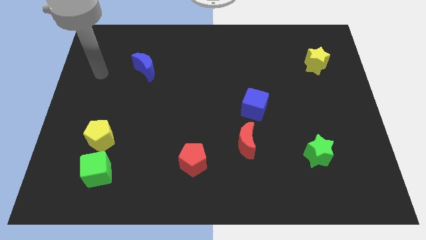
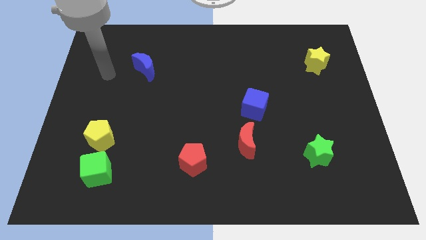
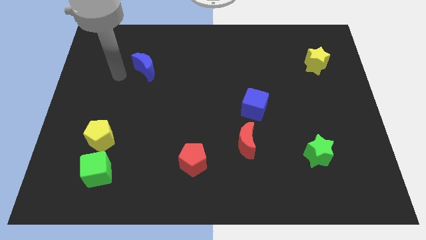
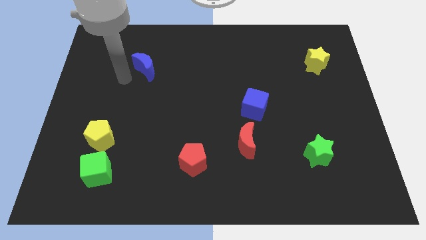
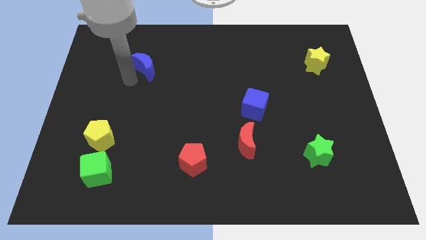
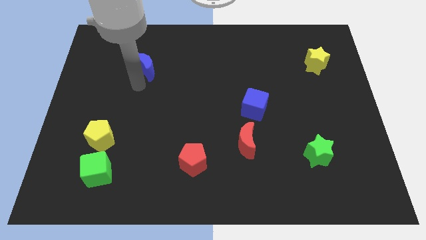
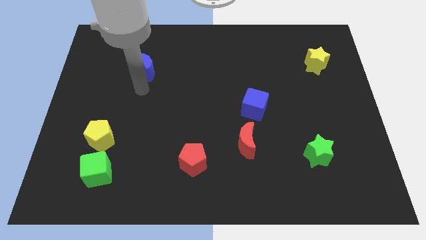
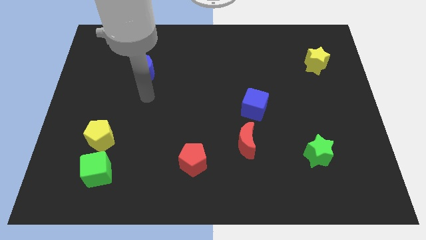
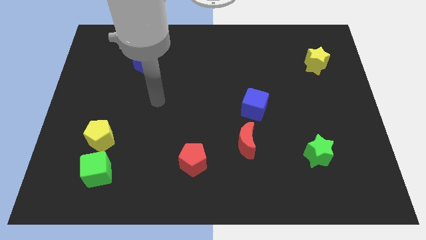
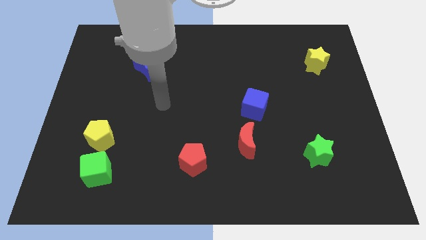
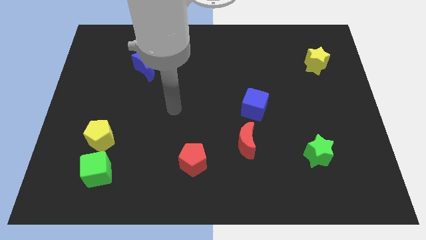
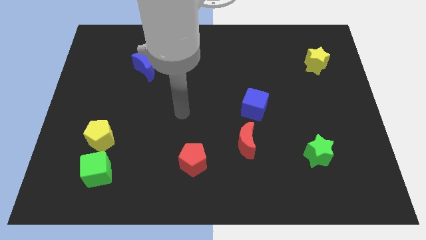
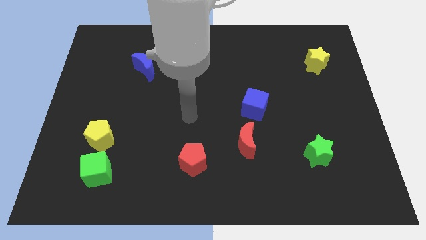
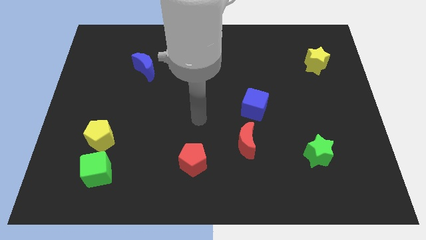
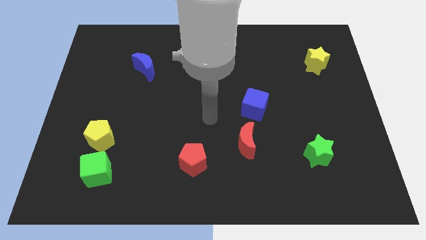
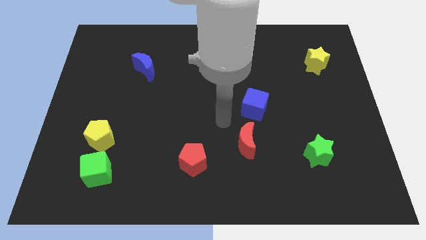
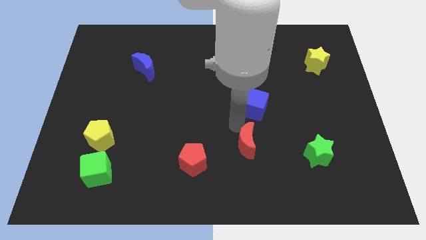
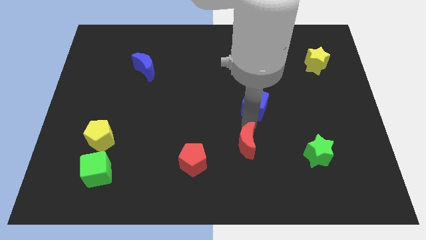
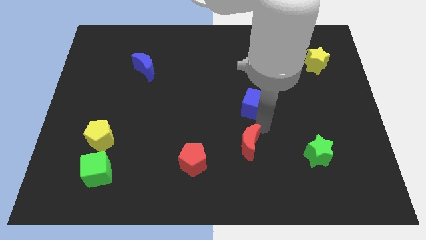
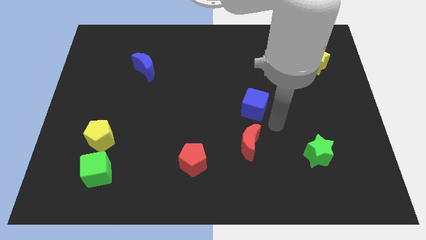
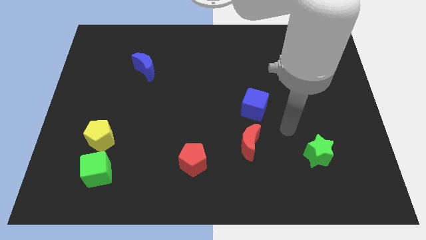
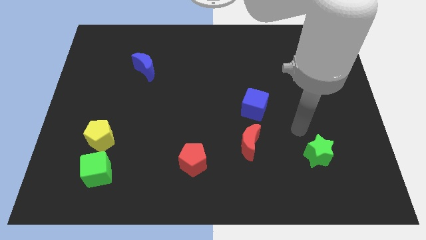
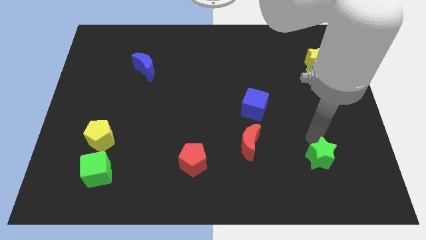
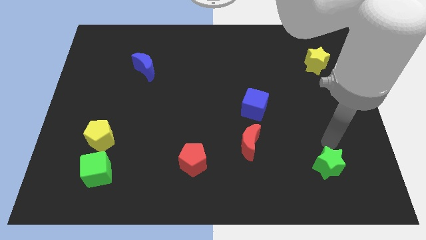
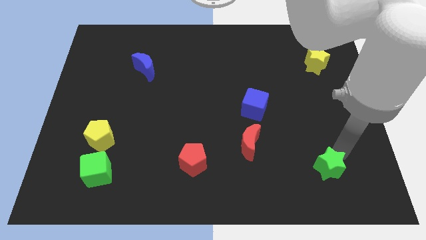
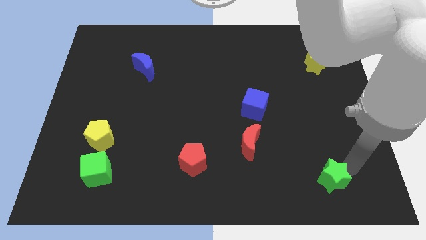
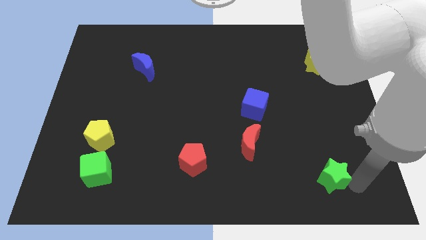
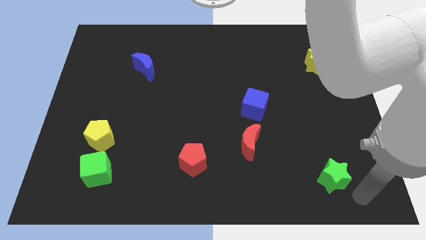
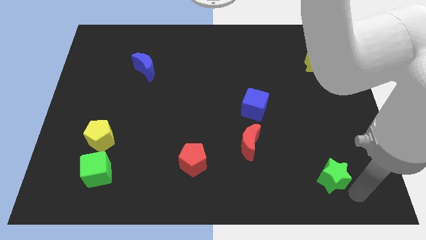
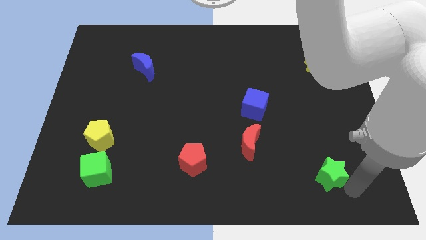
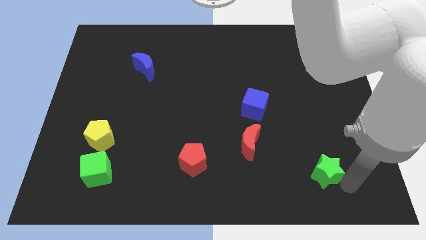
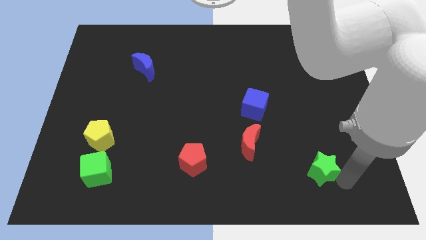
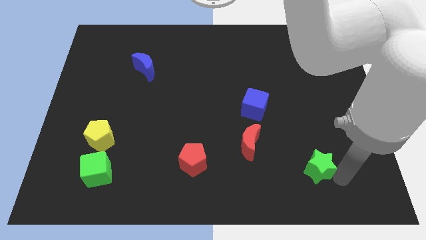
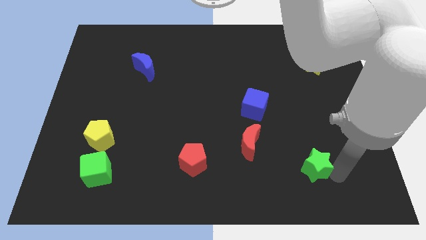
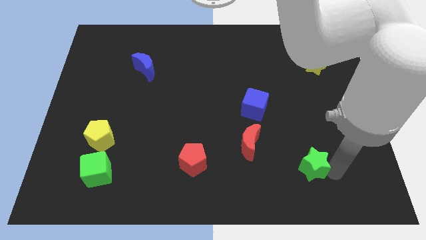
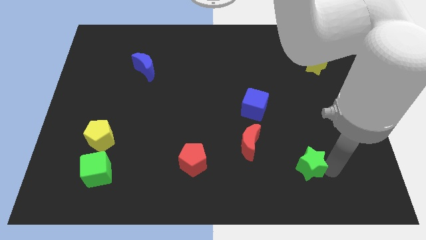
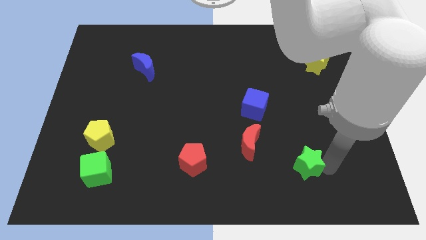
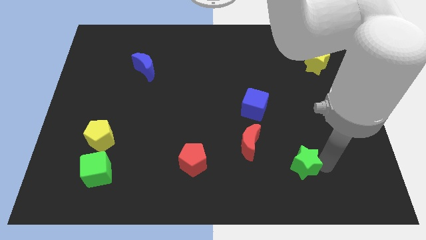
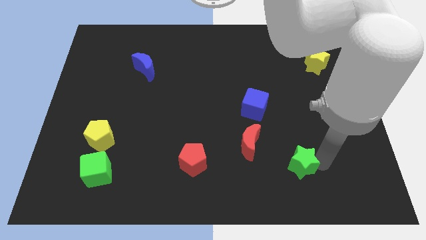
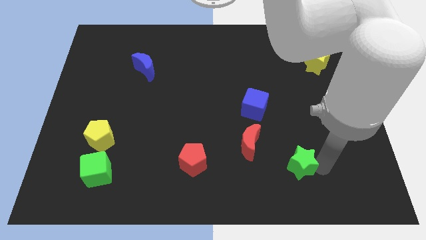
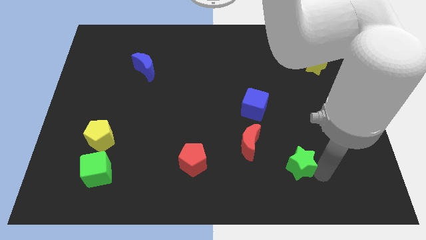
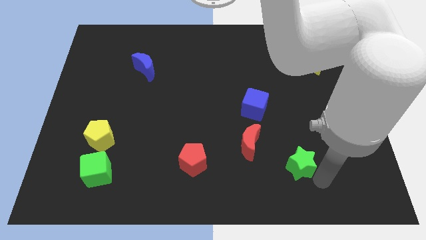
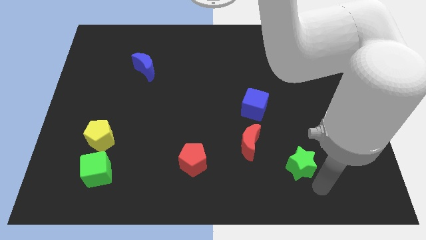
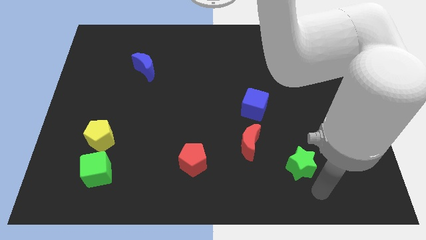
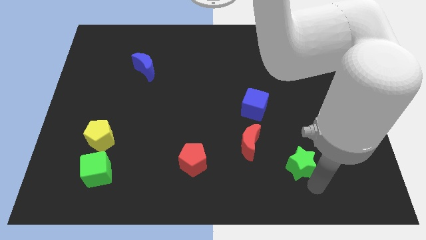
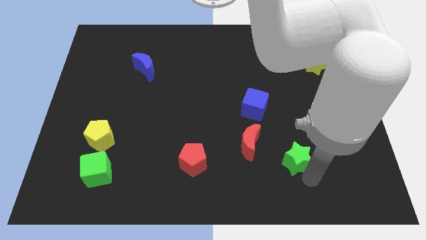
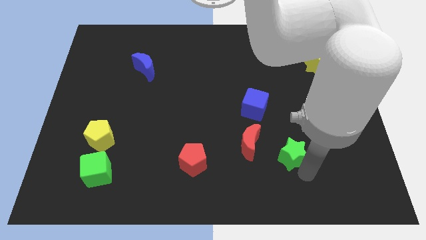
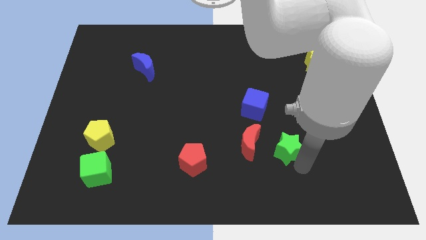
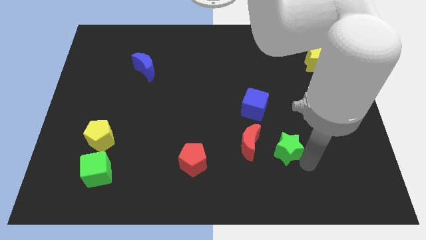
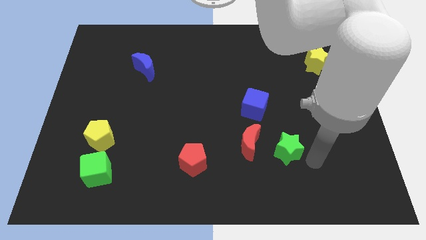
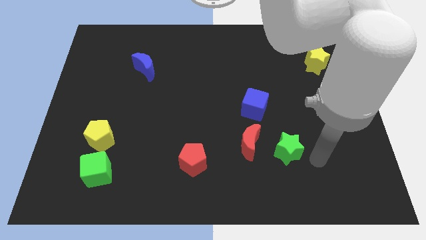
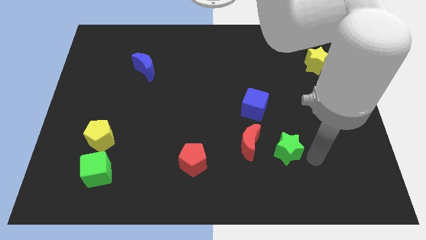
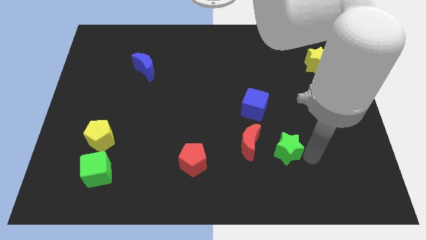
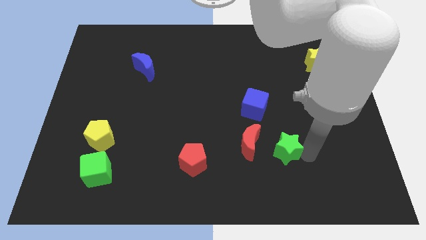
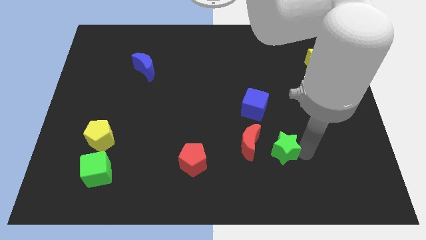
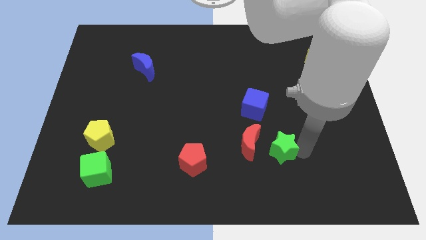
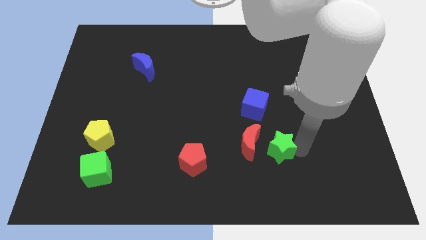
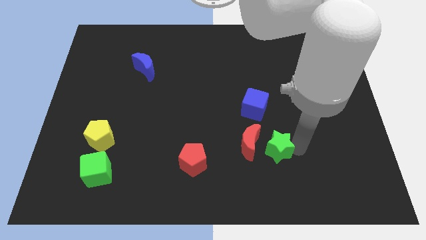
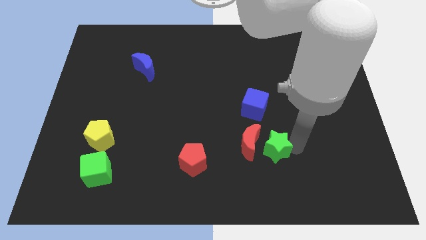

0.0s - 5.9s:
put the green star towards the red moon

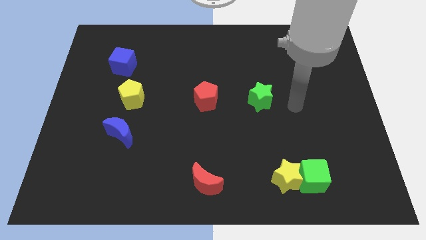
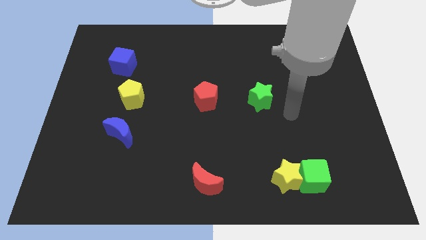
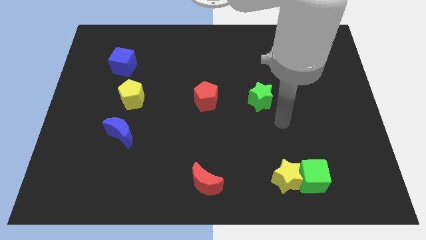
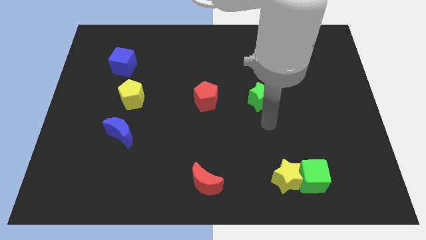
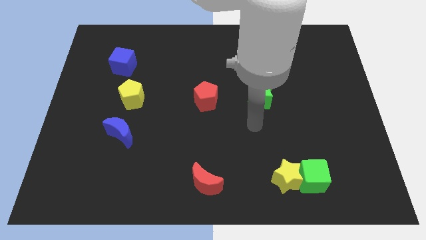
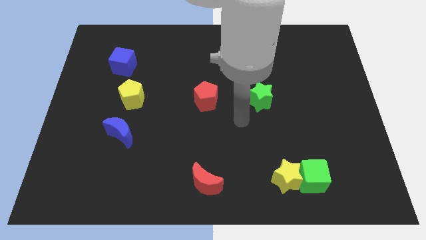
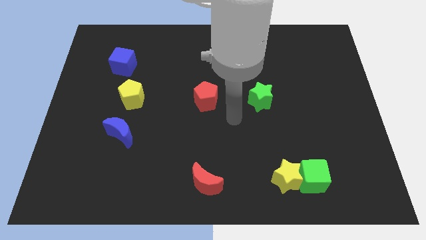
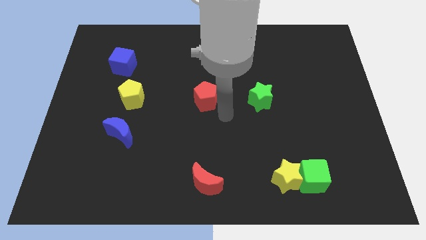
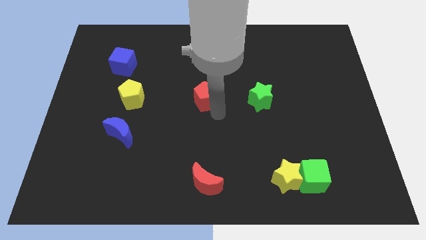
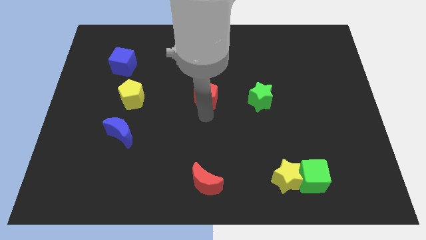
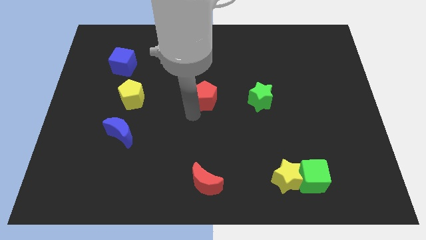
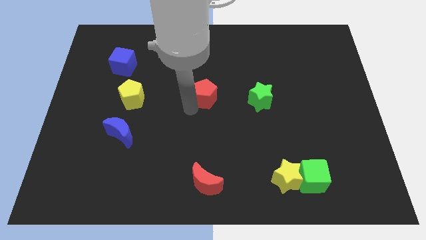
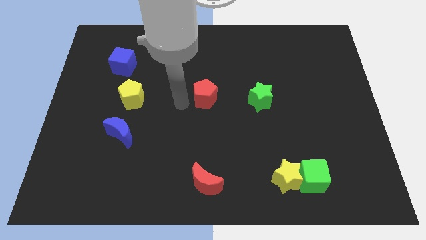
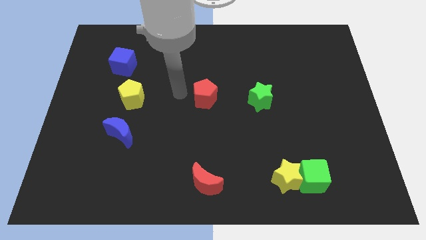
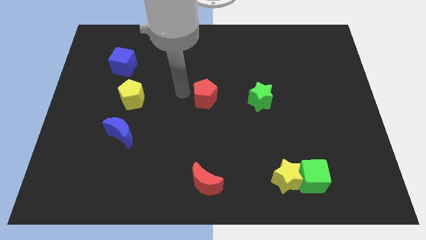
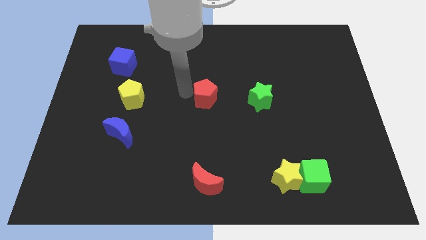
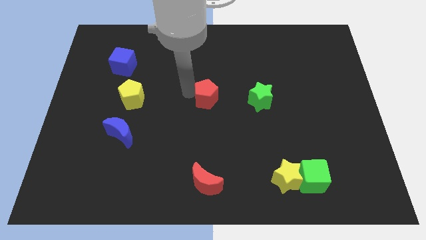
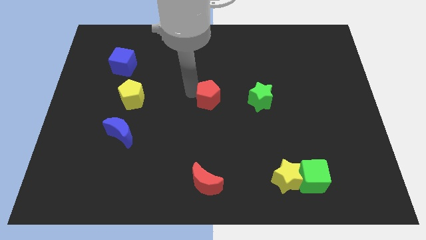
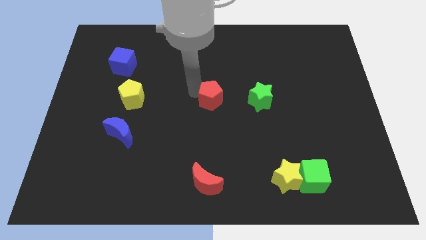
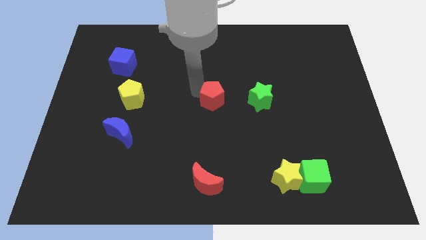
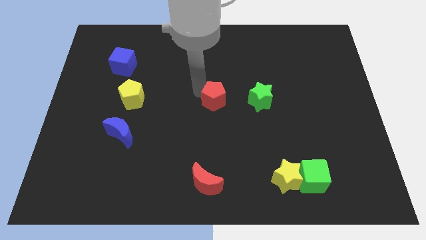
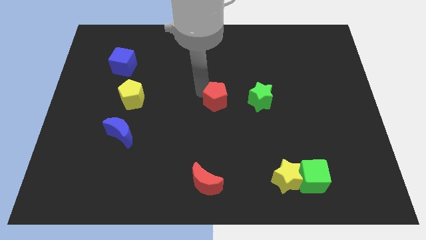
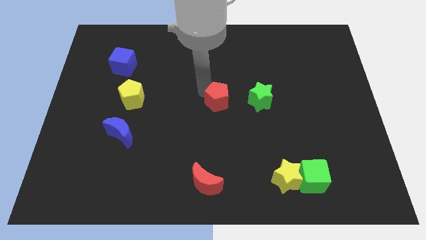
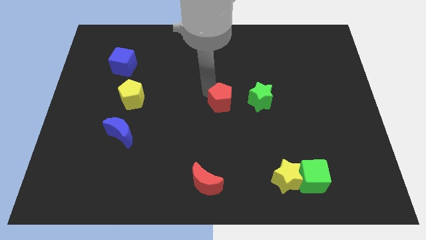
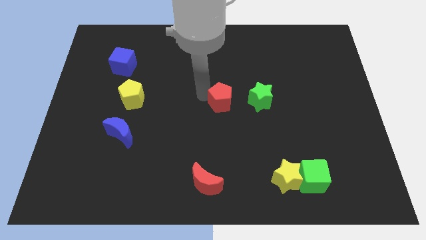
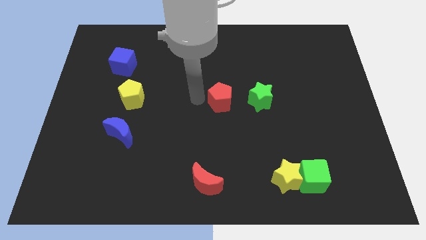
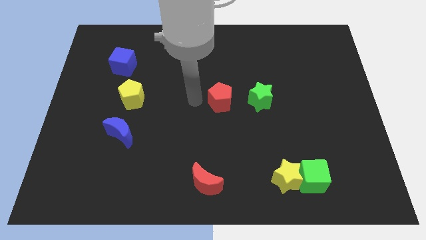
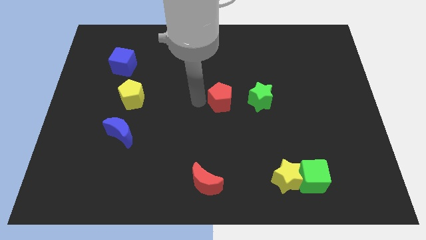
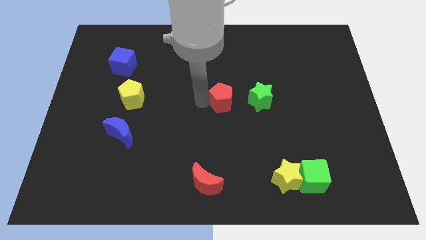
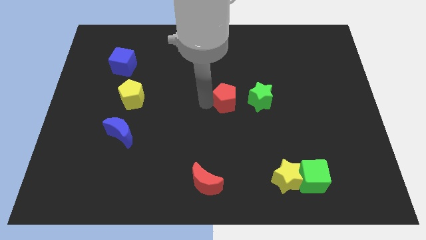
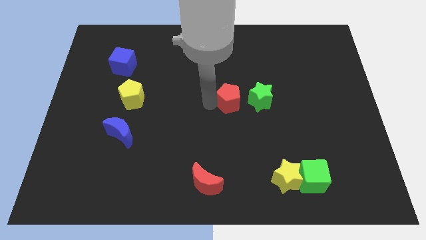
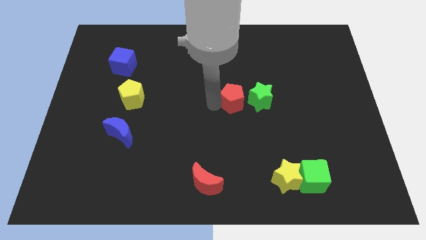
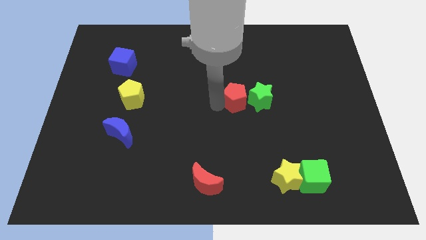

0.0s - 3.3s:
move the red pentagon close to the green star
